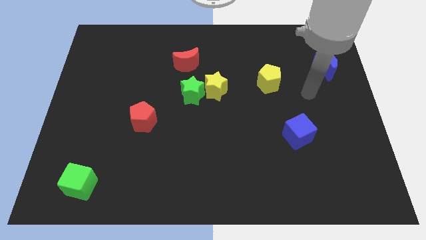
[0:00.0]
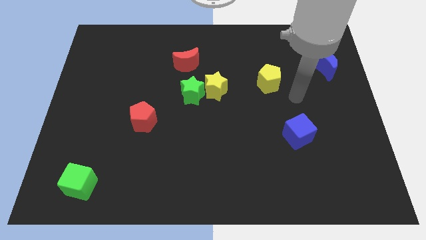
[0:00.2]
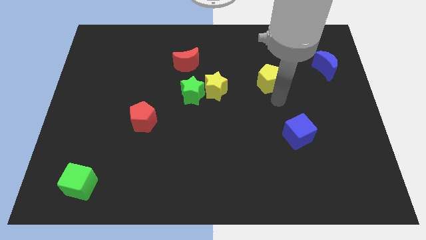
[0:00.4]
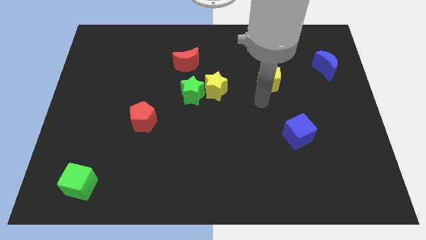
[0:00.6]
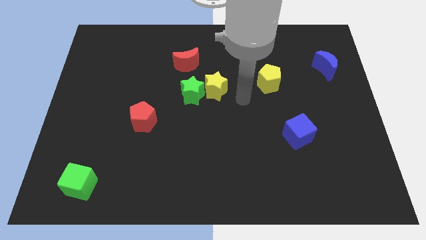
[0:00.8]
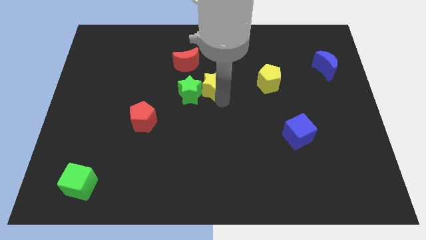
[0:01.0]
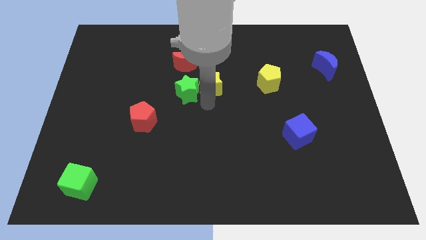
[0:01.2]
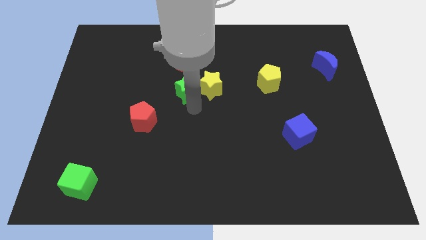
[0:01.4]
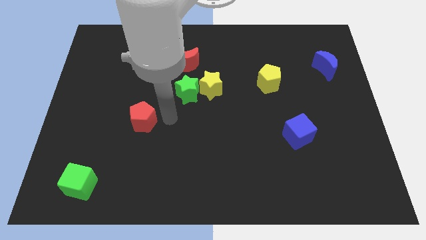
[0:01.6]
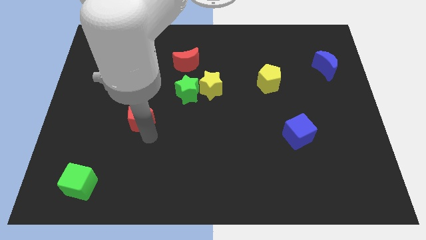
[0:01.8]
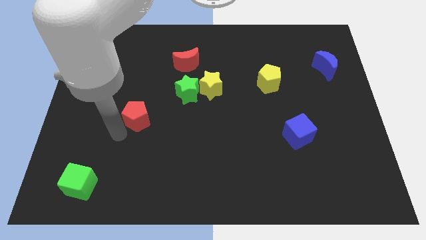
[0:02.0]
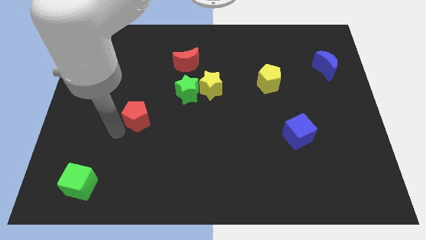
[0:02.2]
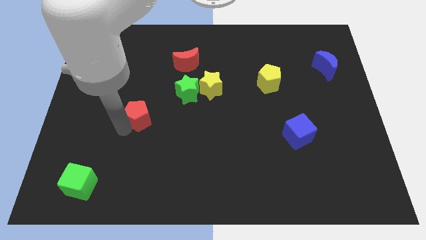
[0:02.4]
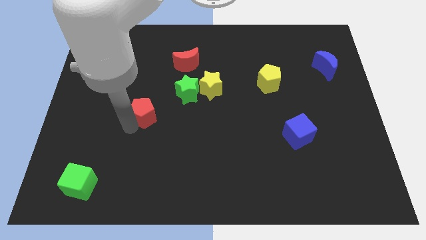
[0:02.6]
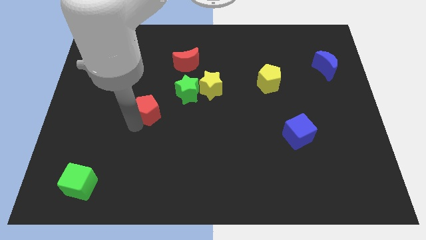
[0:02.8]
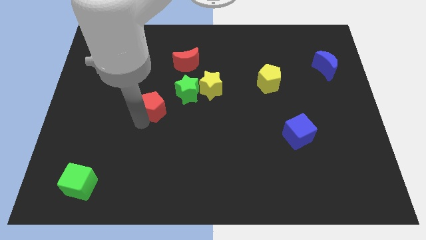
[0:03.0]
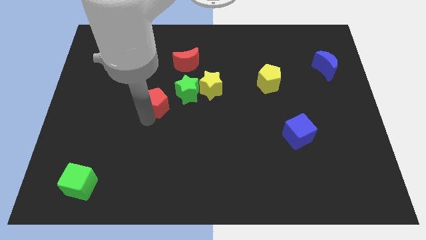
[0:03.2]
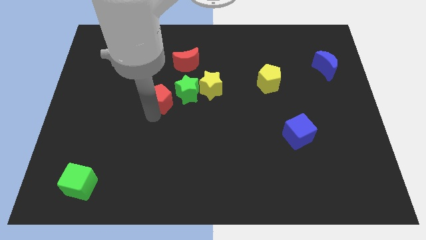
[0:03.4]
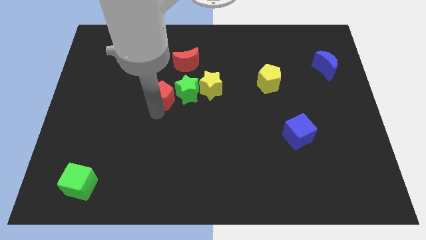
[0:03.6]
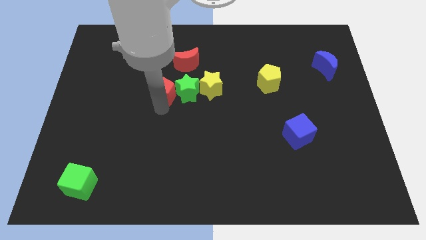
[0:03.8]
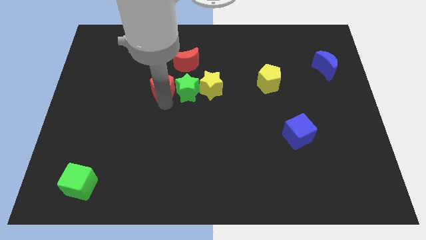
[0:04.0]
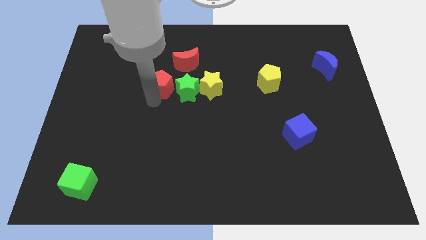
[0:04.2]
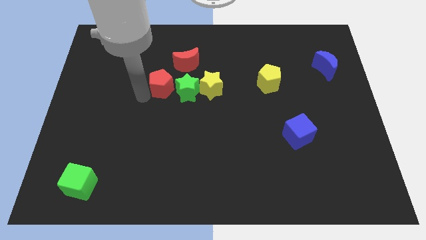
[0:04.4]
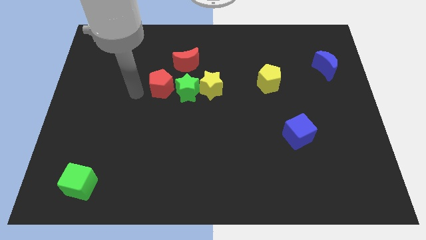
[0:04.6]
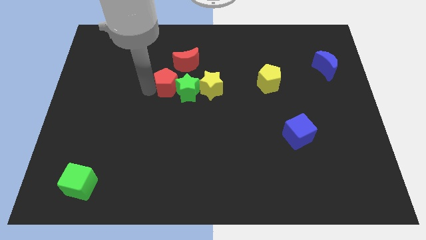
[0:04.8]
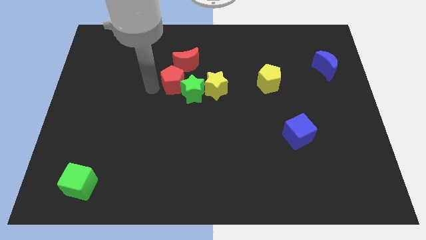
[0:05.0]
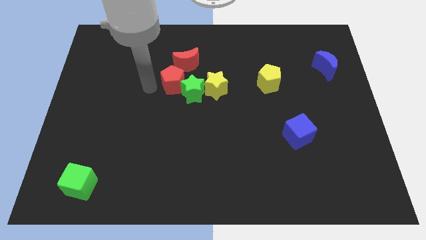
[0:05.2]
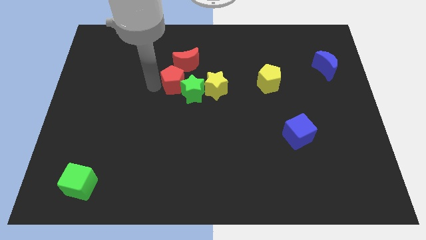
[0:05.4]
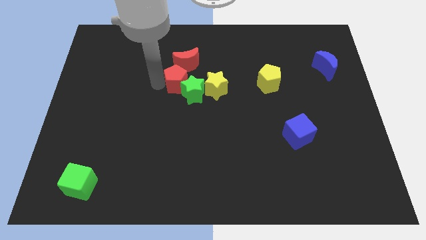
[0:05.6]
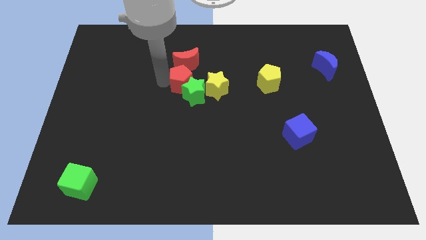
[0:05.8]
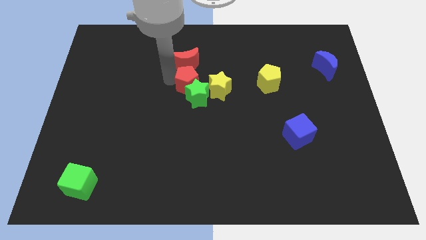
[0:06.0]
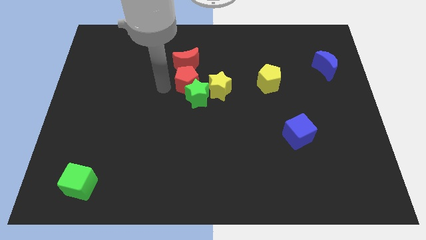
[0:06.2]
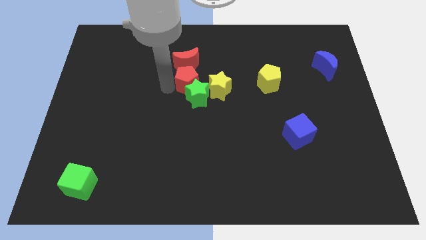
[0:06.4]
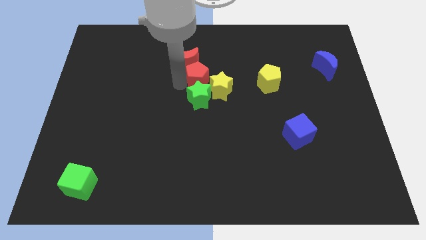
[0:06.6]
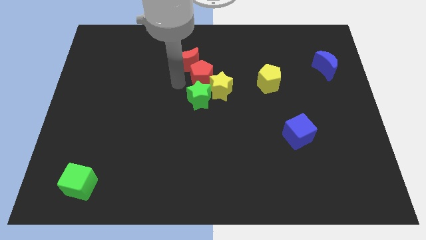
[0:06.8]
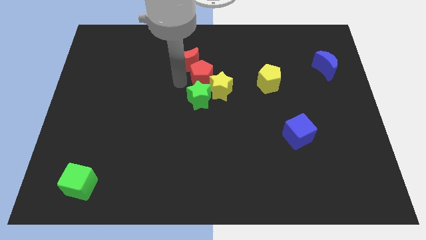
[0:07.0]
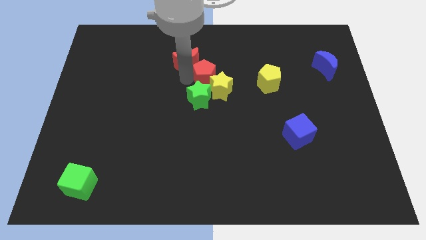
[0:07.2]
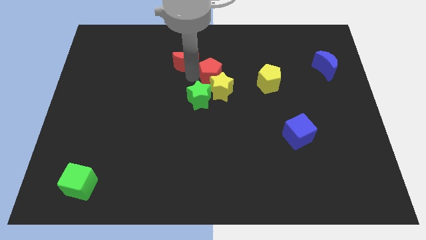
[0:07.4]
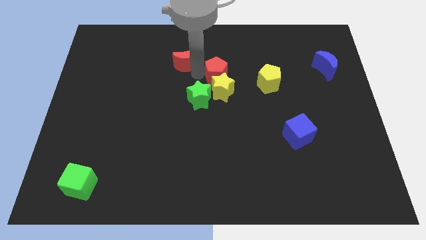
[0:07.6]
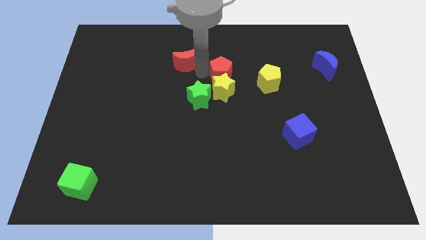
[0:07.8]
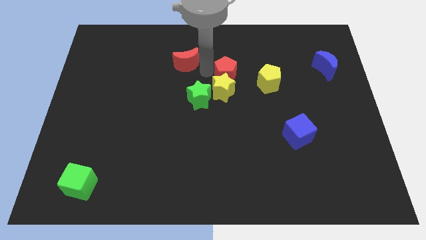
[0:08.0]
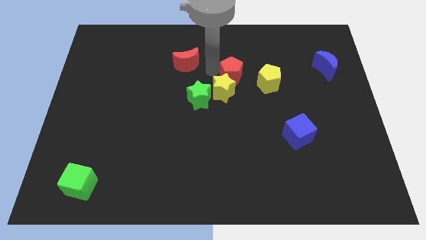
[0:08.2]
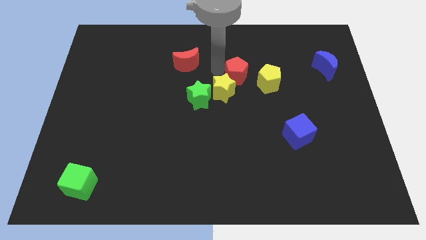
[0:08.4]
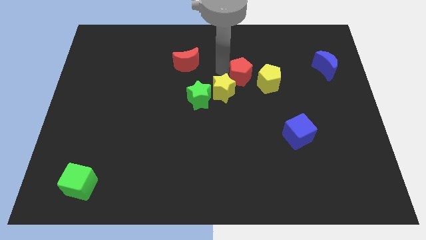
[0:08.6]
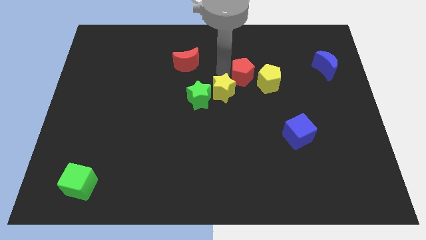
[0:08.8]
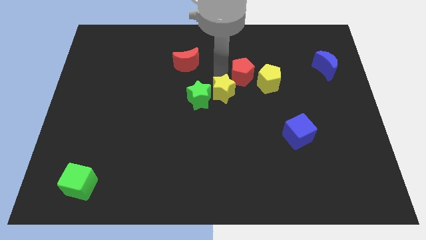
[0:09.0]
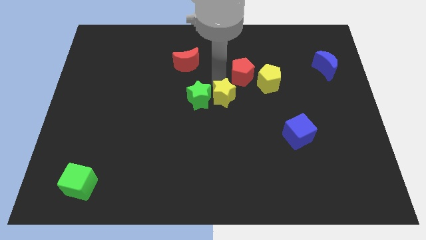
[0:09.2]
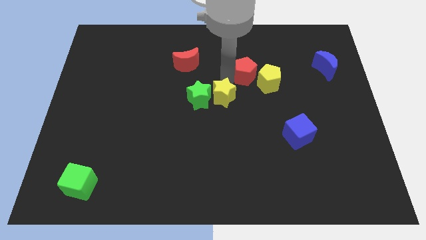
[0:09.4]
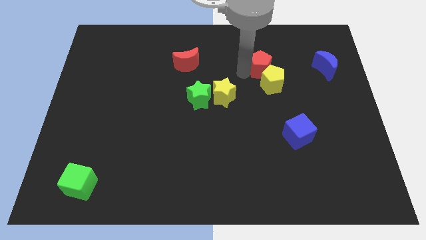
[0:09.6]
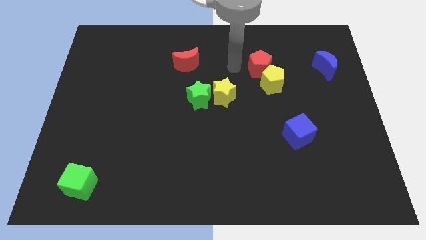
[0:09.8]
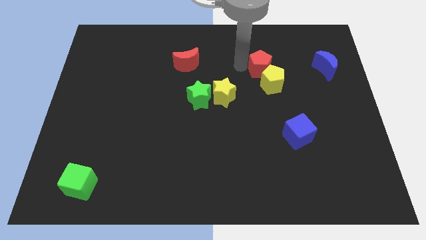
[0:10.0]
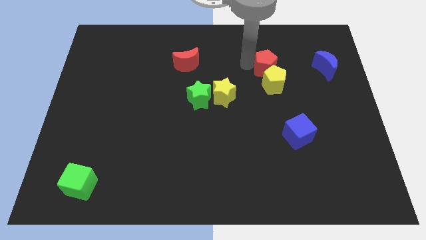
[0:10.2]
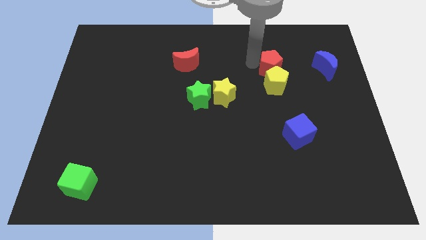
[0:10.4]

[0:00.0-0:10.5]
put the red pentagon to the top right of the yellow pentagon
